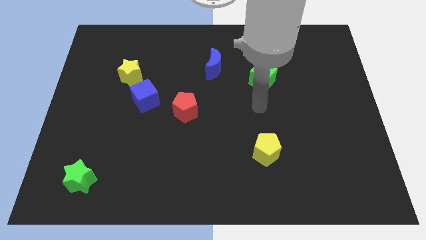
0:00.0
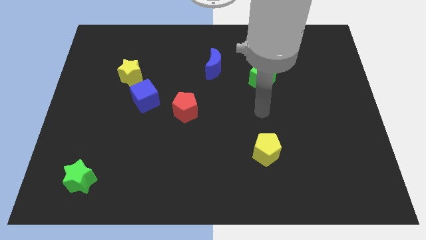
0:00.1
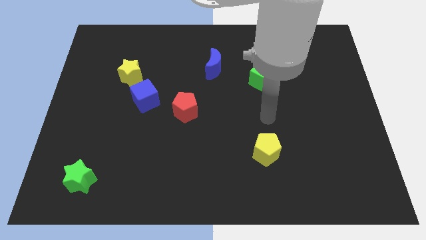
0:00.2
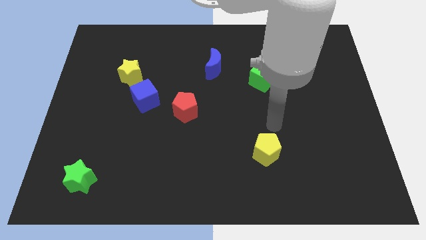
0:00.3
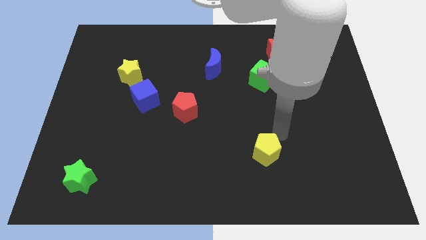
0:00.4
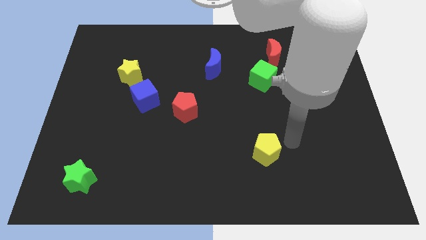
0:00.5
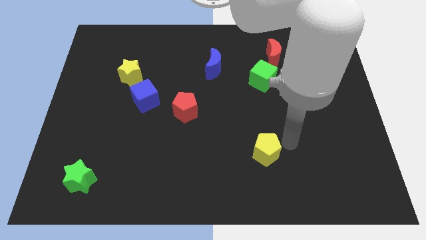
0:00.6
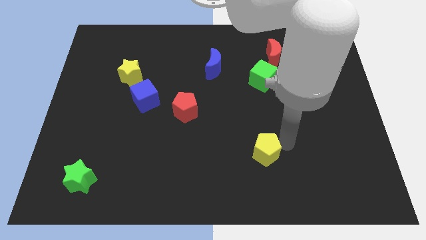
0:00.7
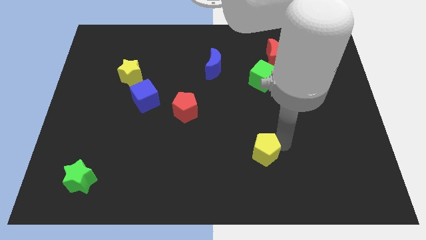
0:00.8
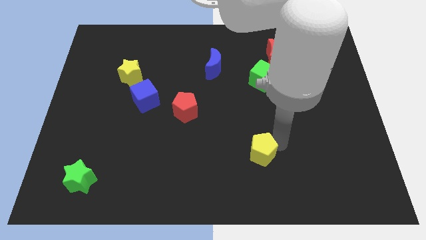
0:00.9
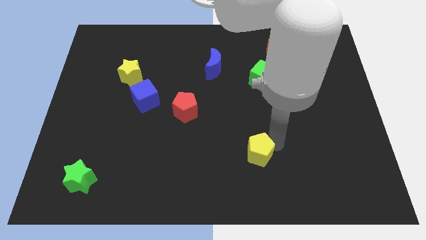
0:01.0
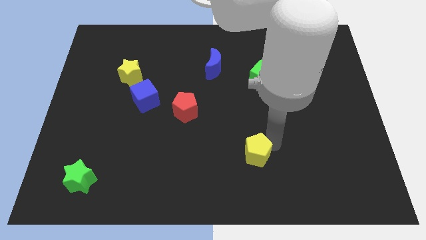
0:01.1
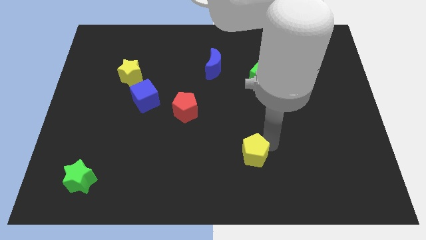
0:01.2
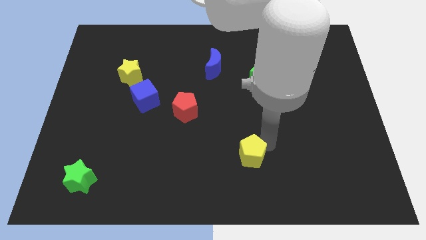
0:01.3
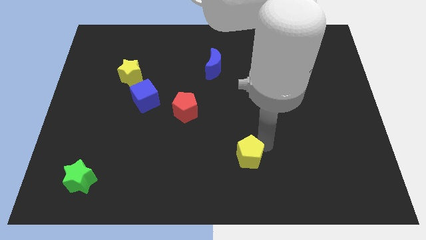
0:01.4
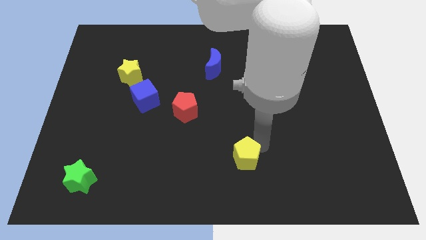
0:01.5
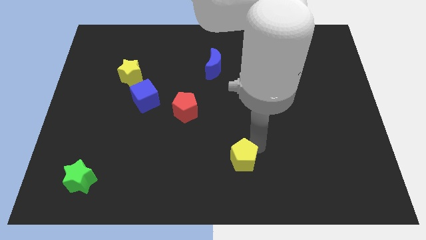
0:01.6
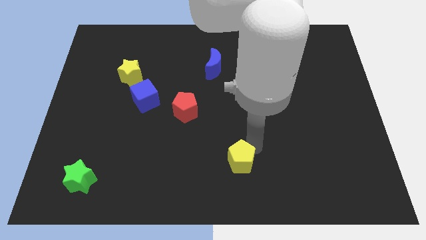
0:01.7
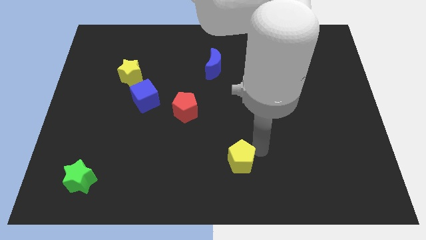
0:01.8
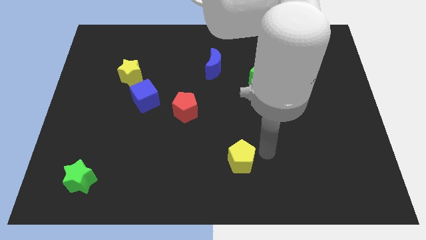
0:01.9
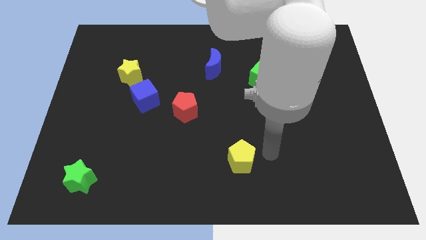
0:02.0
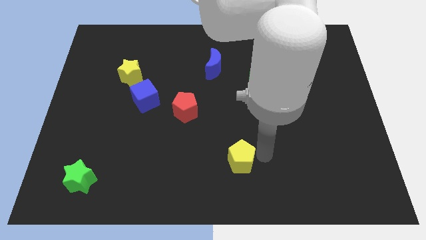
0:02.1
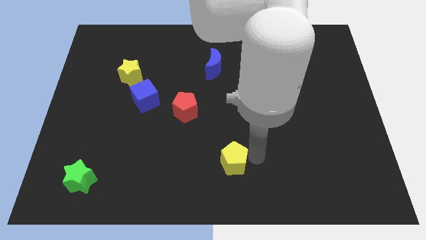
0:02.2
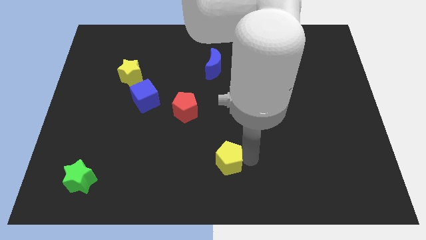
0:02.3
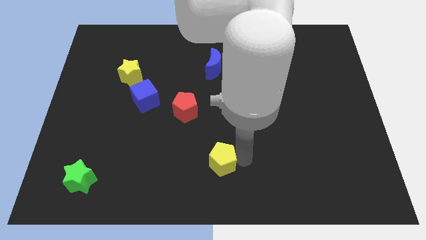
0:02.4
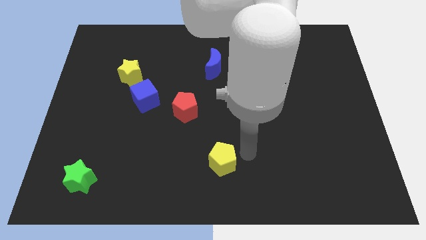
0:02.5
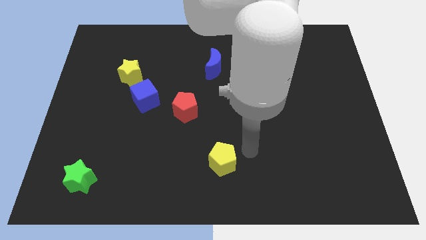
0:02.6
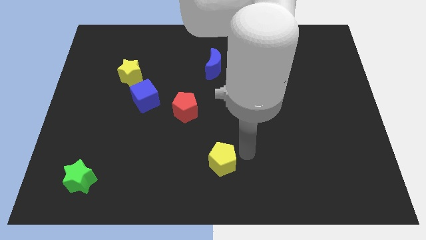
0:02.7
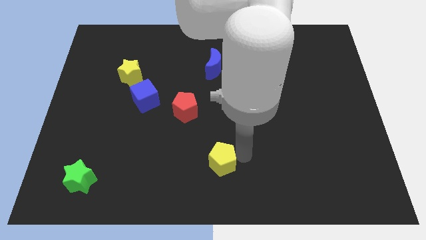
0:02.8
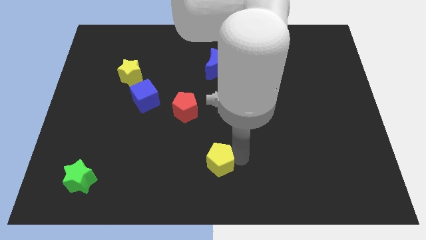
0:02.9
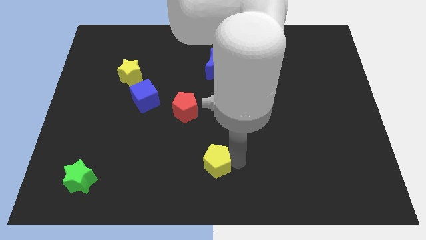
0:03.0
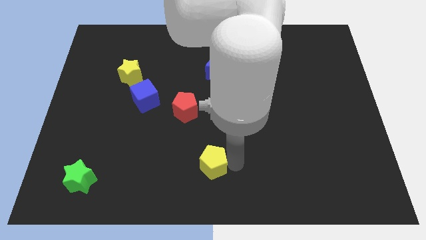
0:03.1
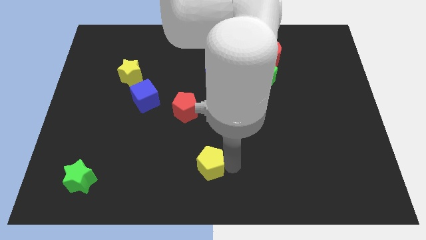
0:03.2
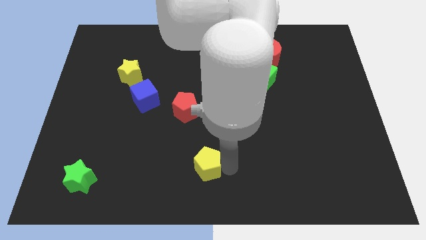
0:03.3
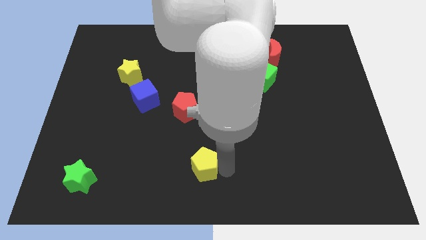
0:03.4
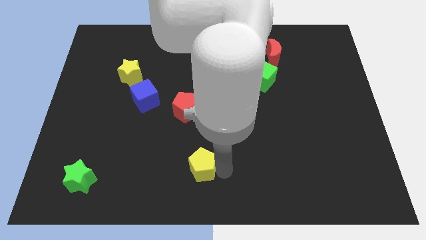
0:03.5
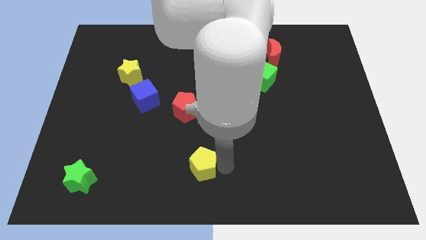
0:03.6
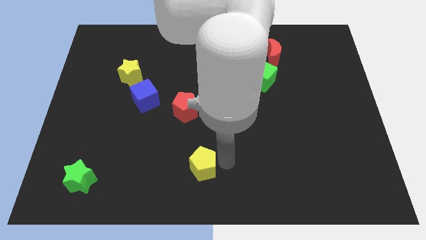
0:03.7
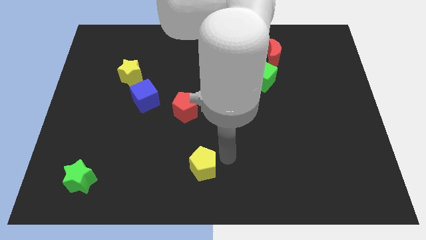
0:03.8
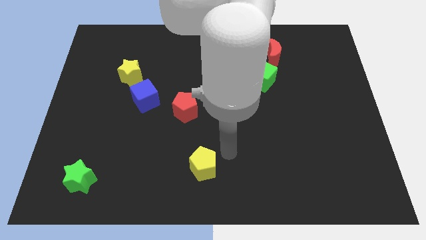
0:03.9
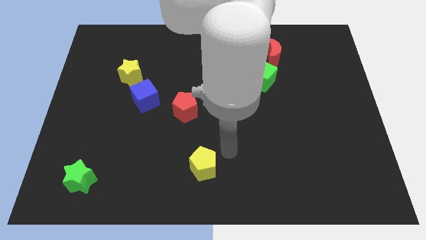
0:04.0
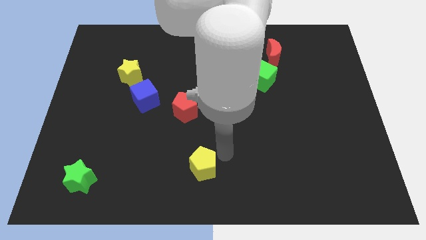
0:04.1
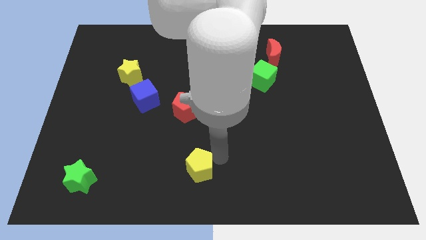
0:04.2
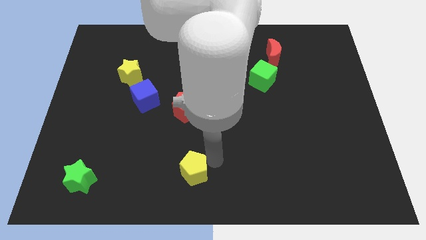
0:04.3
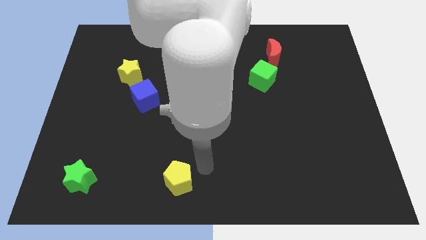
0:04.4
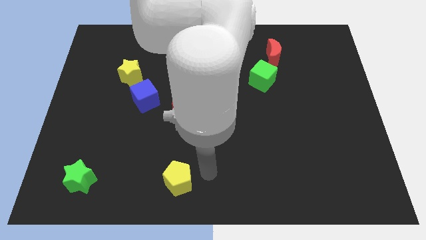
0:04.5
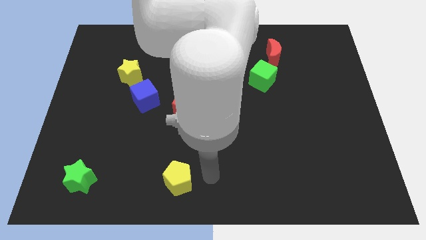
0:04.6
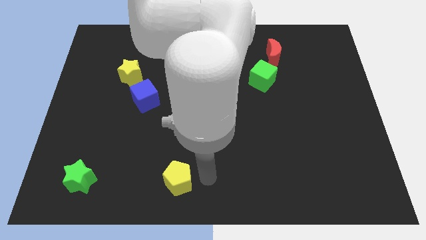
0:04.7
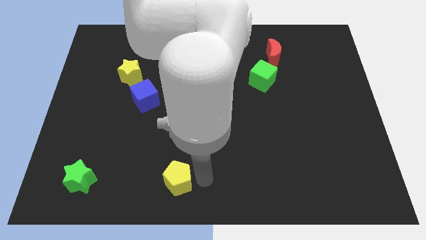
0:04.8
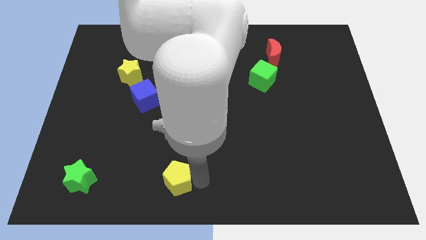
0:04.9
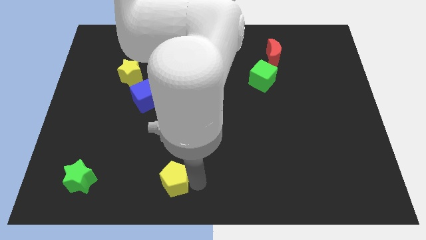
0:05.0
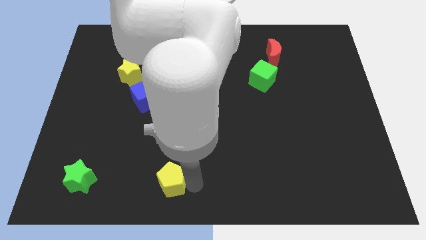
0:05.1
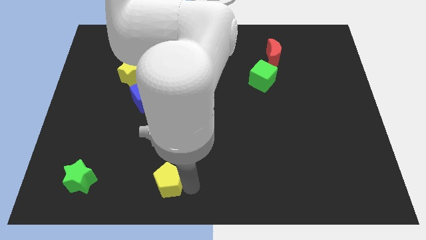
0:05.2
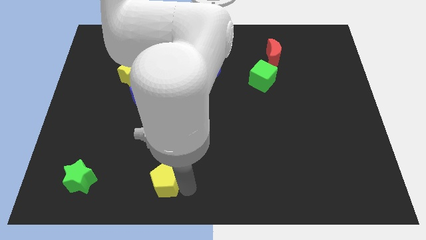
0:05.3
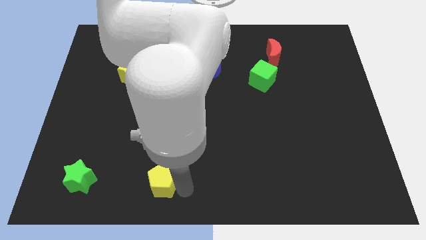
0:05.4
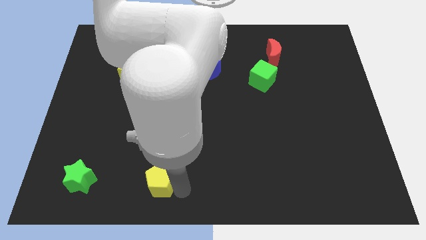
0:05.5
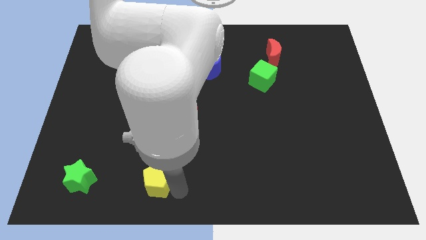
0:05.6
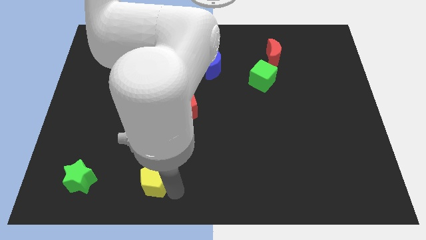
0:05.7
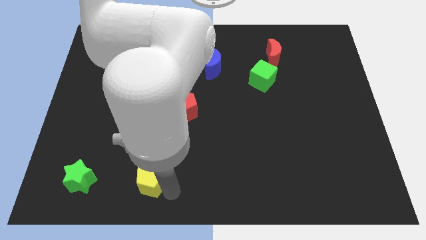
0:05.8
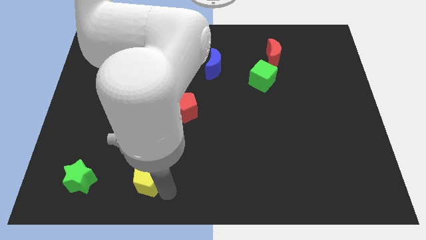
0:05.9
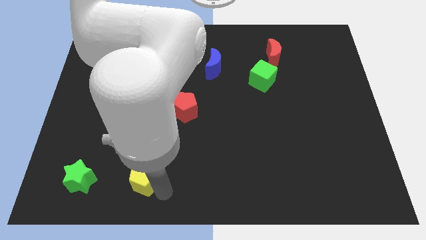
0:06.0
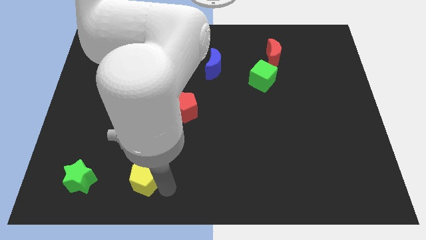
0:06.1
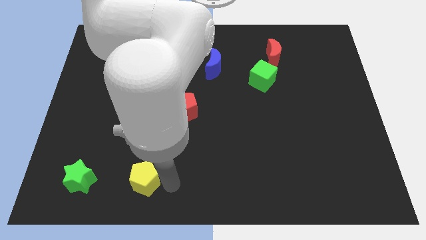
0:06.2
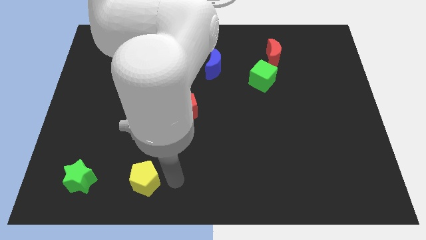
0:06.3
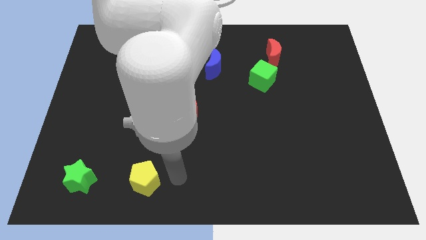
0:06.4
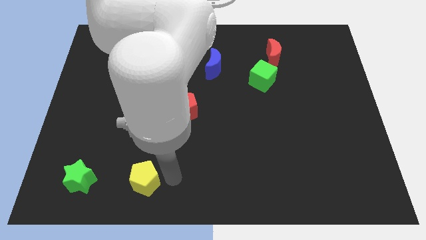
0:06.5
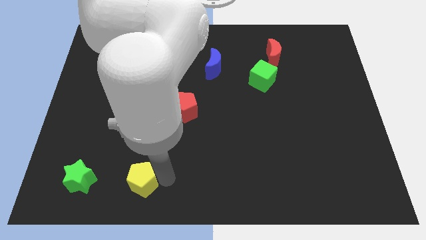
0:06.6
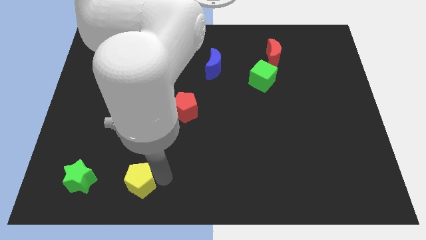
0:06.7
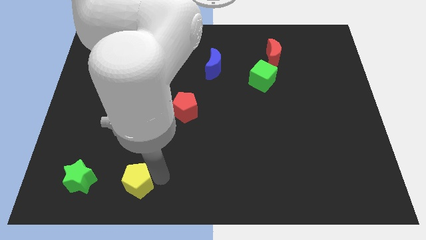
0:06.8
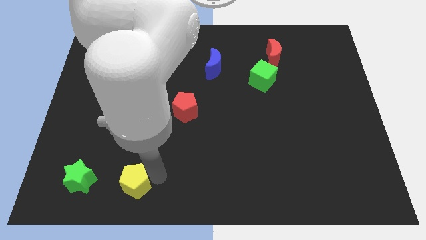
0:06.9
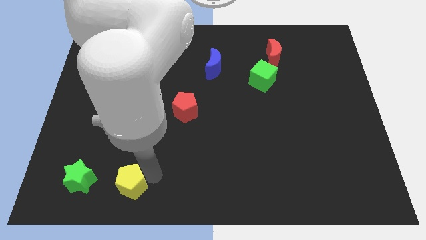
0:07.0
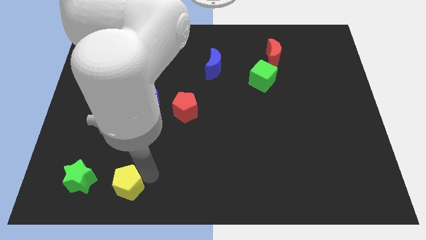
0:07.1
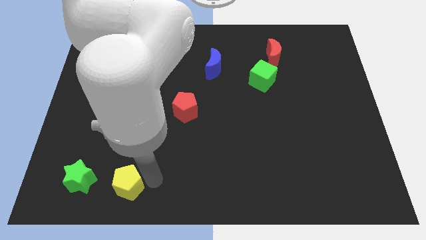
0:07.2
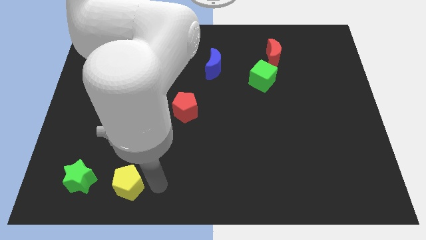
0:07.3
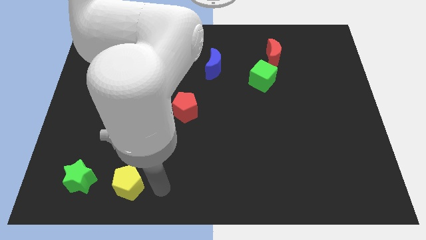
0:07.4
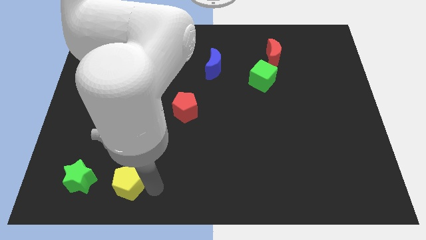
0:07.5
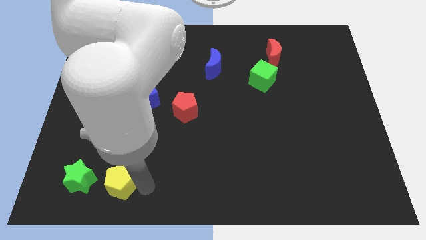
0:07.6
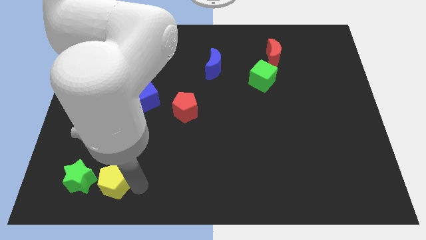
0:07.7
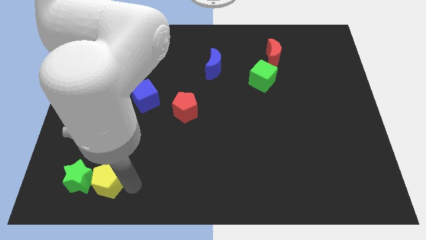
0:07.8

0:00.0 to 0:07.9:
push the yellow pentagon to the green star
